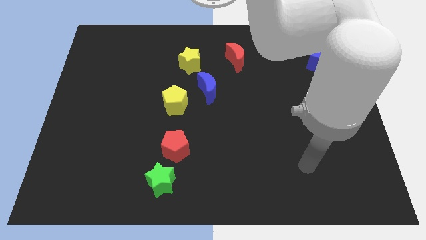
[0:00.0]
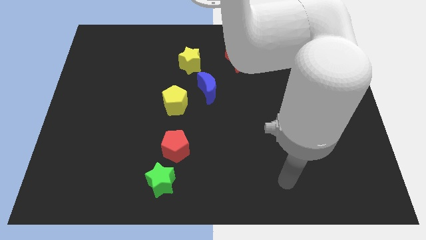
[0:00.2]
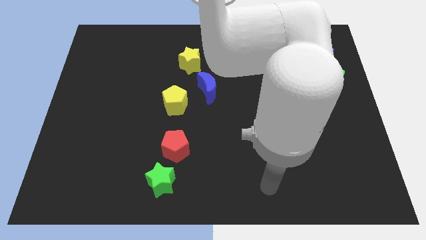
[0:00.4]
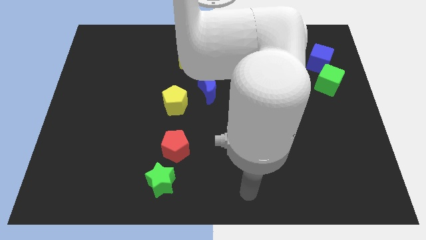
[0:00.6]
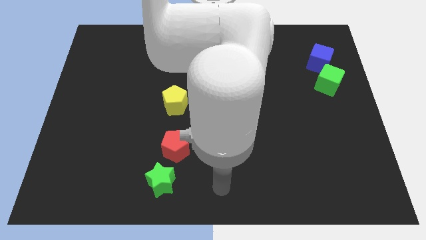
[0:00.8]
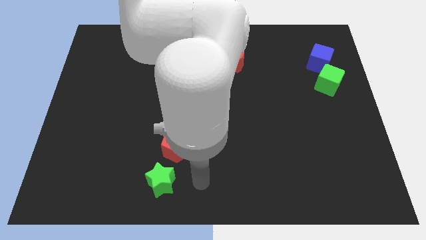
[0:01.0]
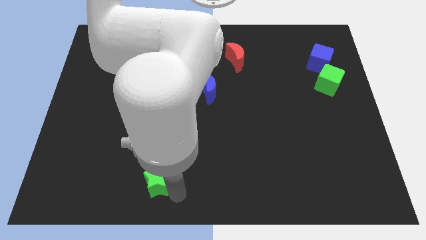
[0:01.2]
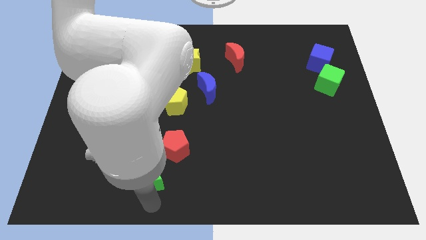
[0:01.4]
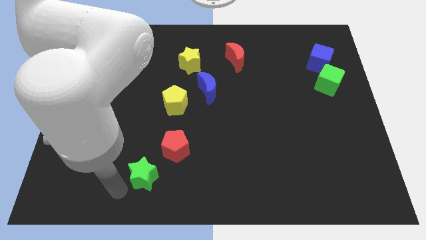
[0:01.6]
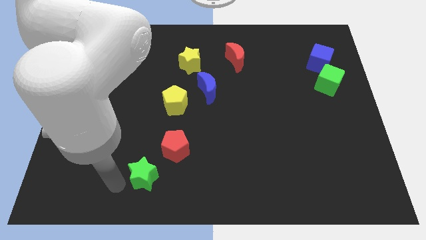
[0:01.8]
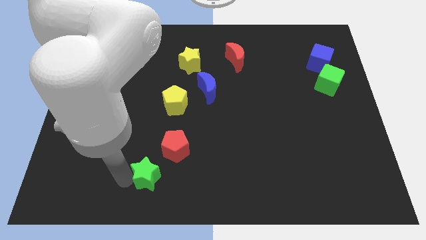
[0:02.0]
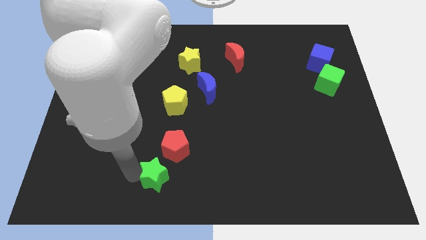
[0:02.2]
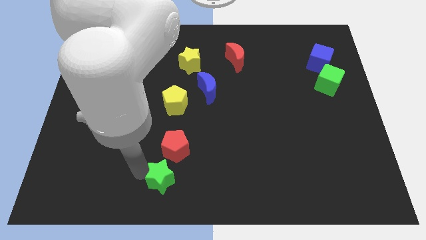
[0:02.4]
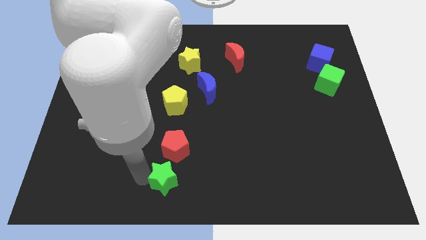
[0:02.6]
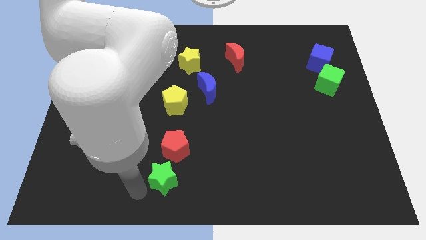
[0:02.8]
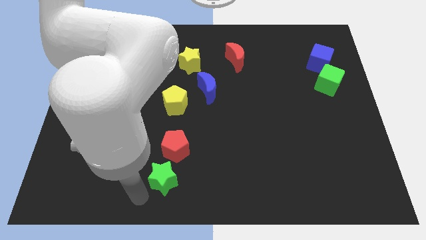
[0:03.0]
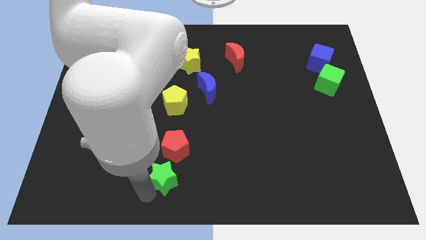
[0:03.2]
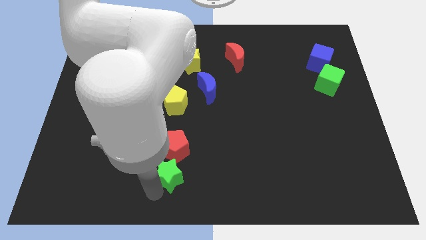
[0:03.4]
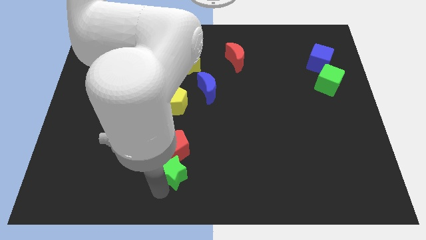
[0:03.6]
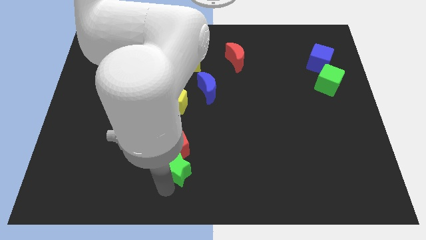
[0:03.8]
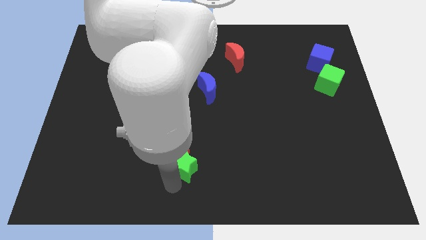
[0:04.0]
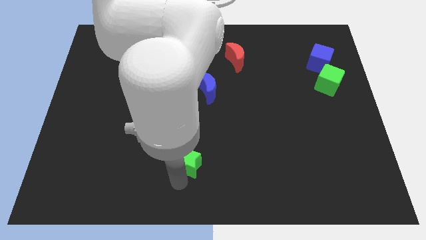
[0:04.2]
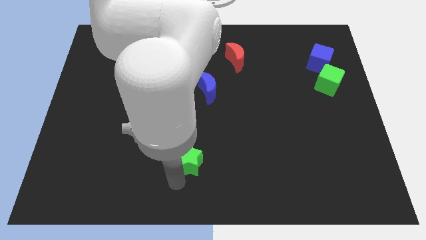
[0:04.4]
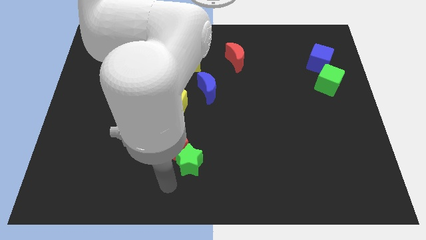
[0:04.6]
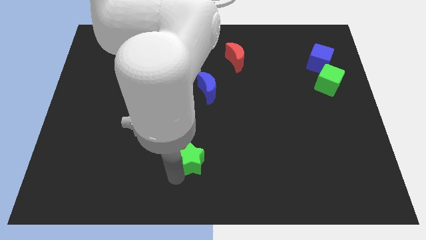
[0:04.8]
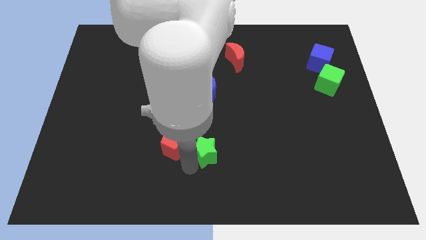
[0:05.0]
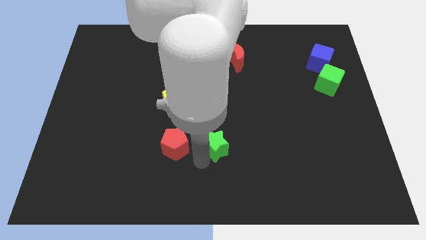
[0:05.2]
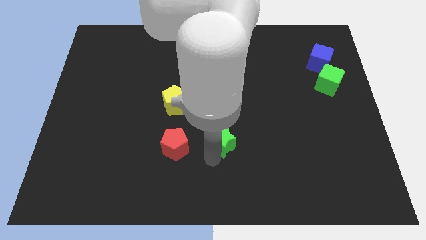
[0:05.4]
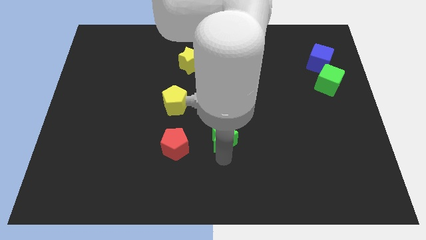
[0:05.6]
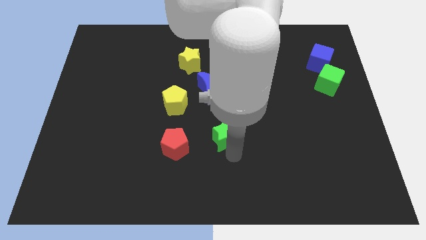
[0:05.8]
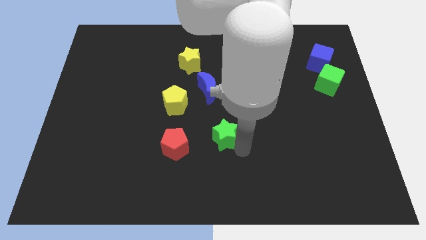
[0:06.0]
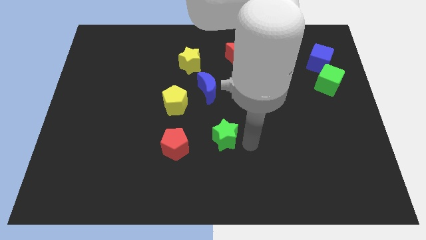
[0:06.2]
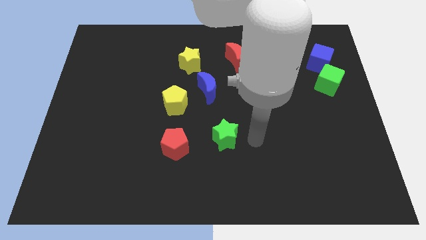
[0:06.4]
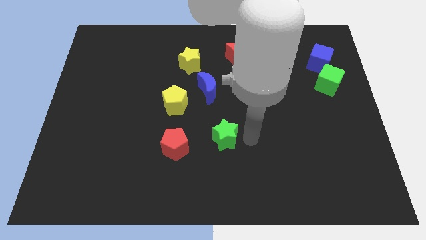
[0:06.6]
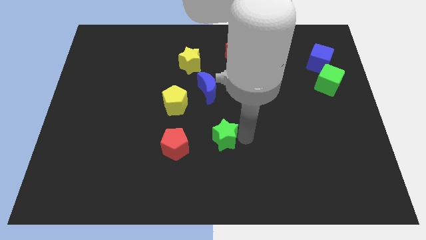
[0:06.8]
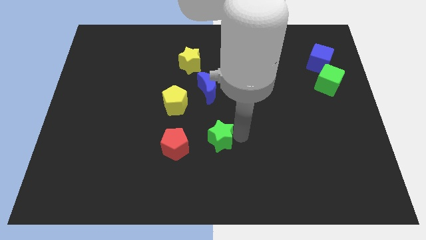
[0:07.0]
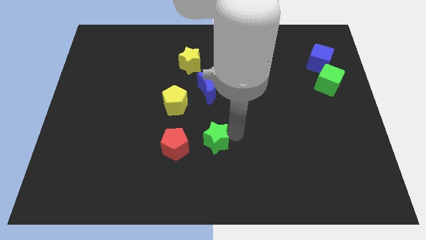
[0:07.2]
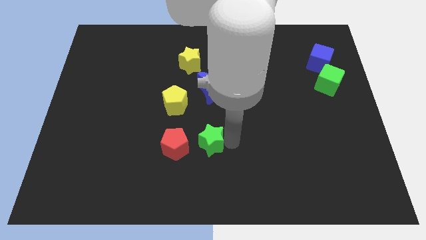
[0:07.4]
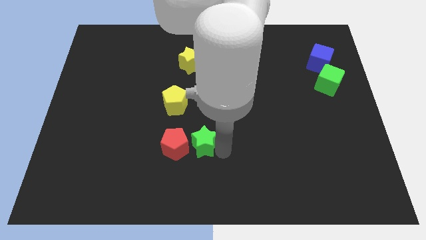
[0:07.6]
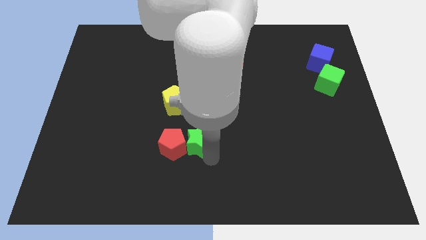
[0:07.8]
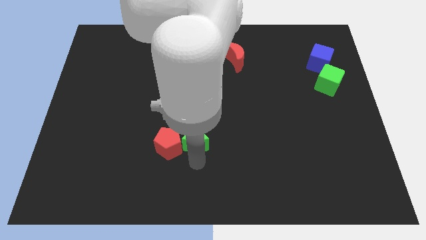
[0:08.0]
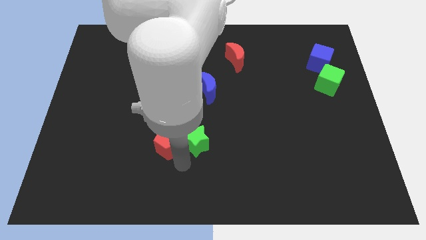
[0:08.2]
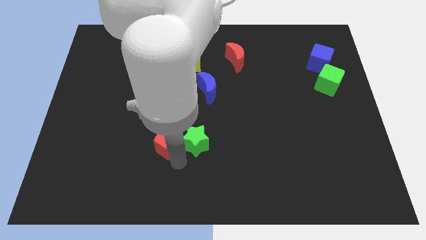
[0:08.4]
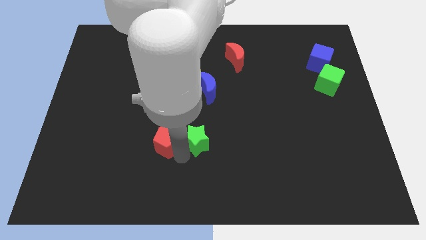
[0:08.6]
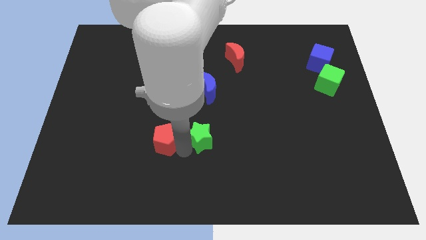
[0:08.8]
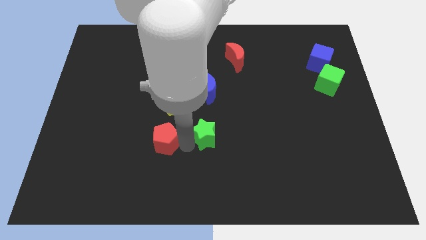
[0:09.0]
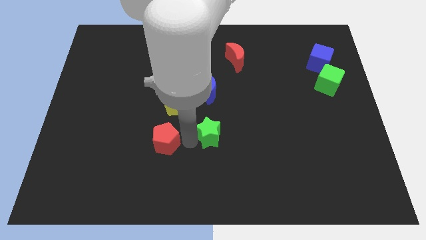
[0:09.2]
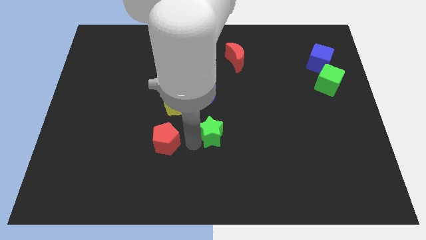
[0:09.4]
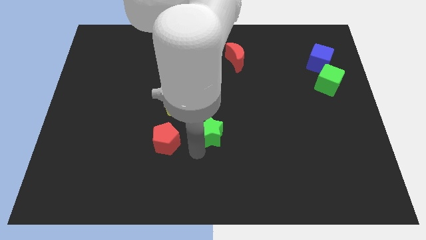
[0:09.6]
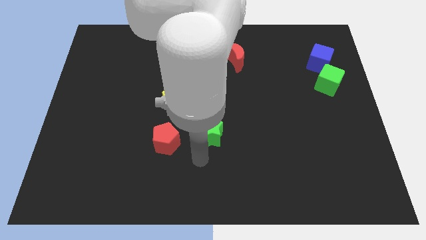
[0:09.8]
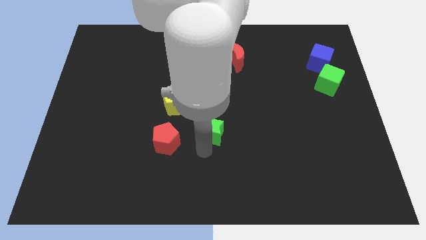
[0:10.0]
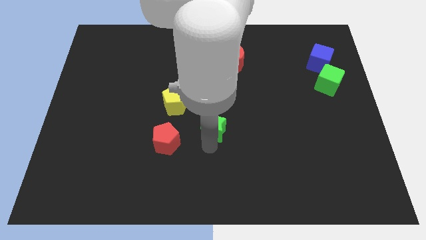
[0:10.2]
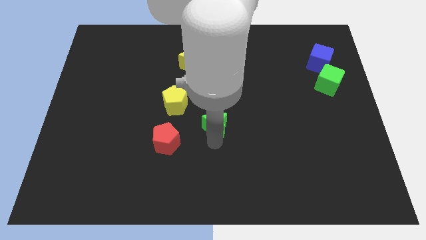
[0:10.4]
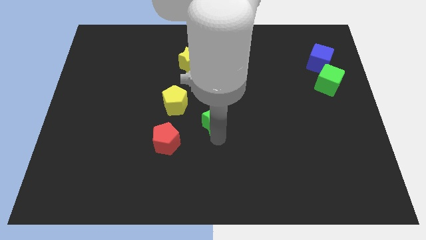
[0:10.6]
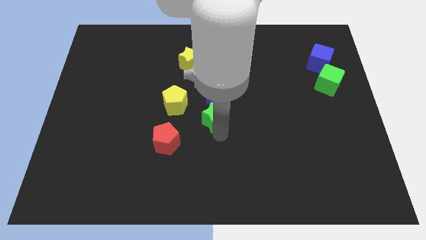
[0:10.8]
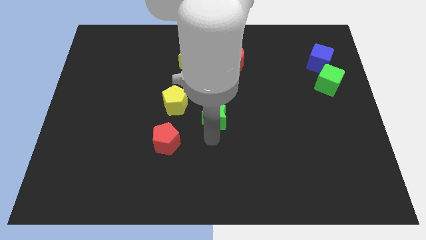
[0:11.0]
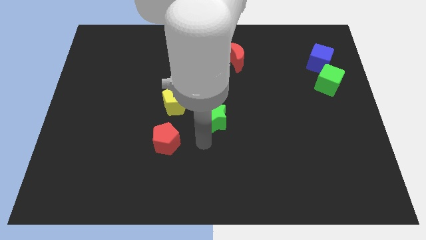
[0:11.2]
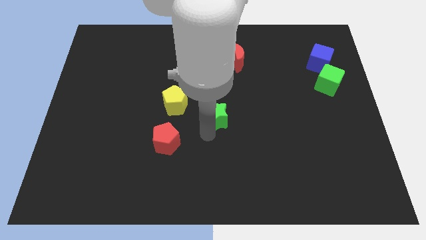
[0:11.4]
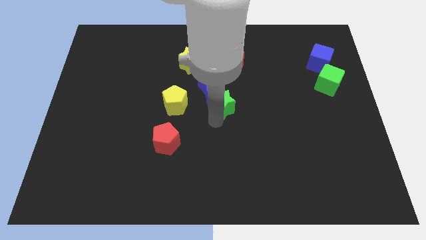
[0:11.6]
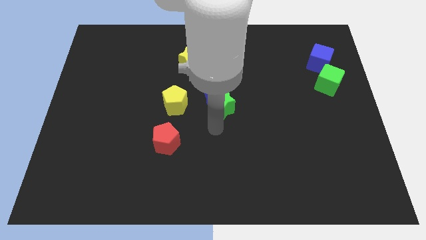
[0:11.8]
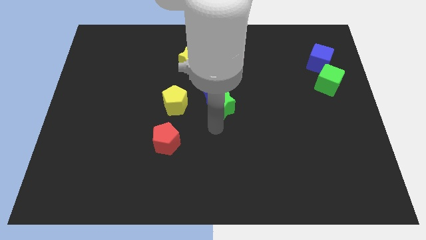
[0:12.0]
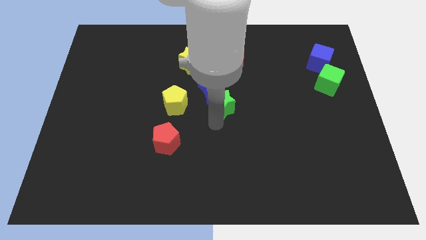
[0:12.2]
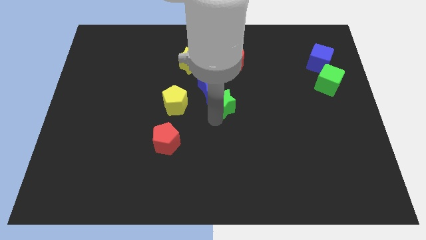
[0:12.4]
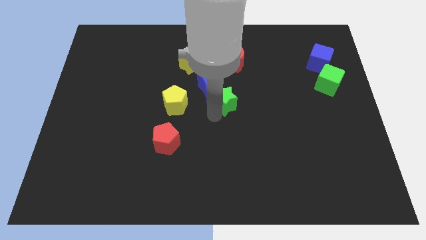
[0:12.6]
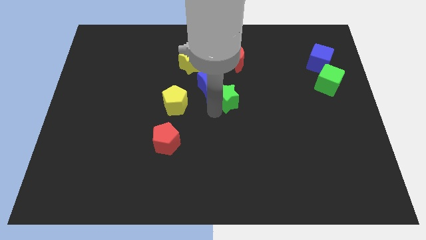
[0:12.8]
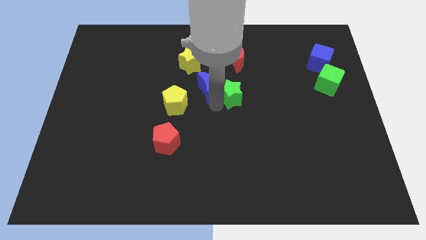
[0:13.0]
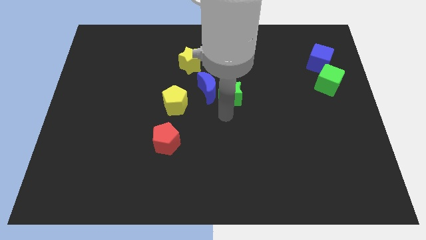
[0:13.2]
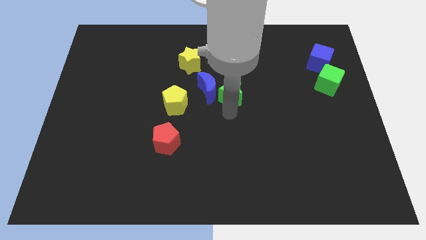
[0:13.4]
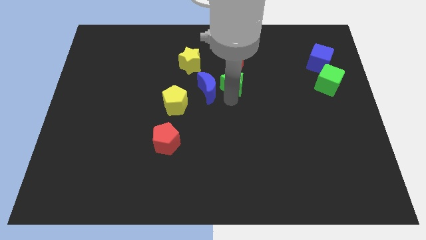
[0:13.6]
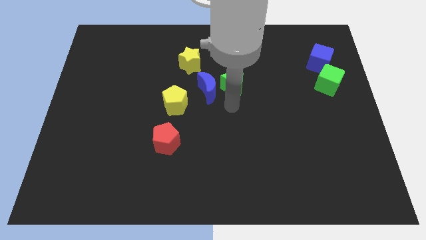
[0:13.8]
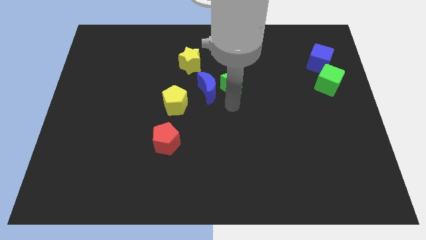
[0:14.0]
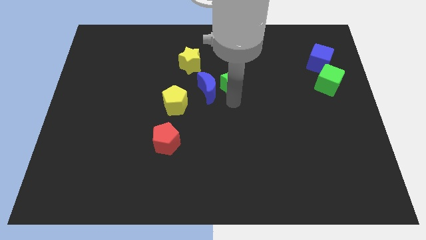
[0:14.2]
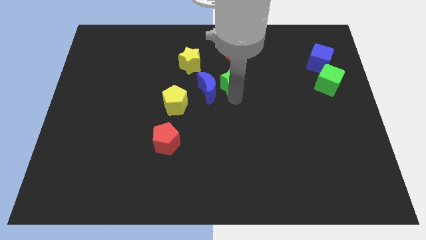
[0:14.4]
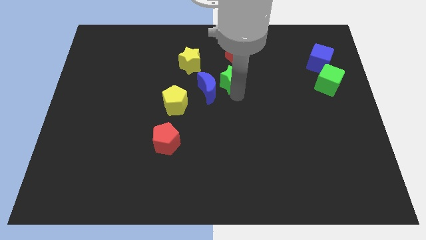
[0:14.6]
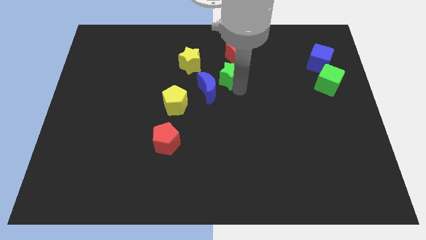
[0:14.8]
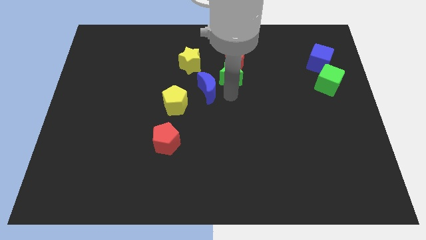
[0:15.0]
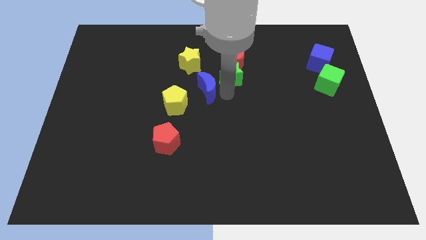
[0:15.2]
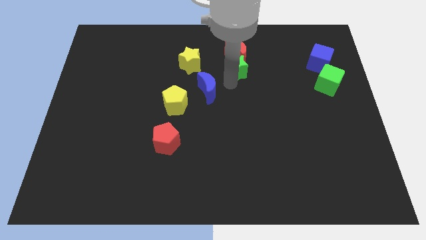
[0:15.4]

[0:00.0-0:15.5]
move the green star next to the red moon
